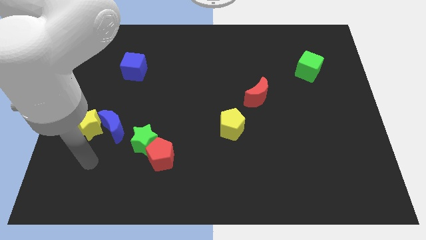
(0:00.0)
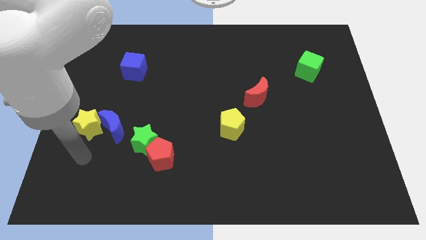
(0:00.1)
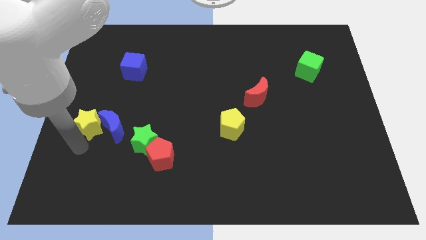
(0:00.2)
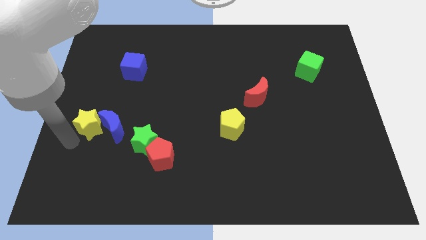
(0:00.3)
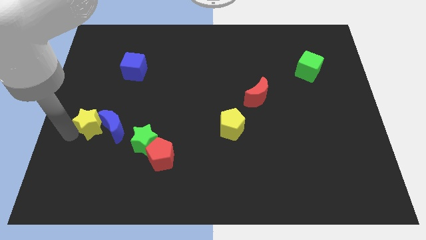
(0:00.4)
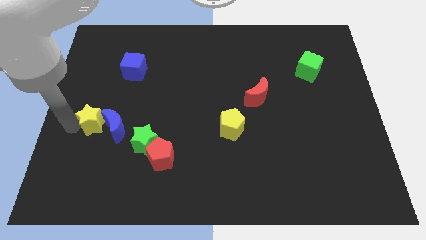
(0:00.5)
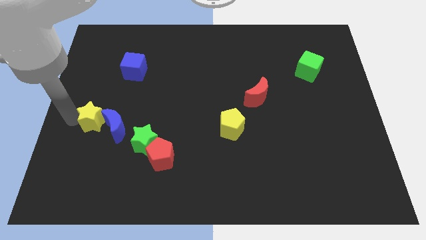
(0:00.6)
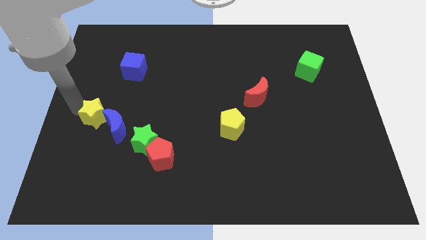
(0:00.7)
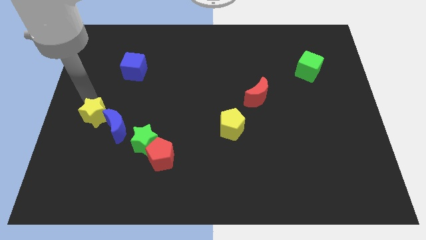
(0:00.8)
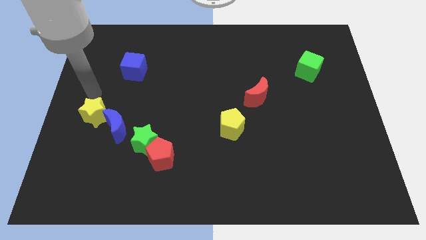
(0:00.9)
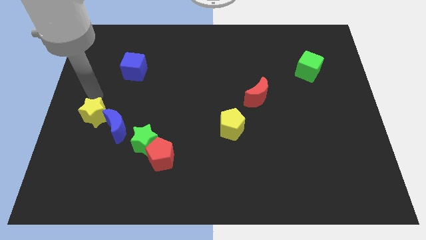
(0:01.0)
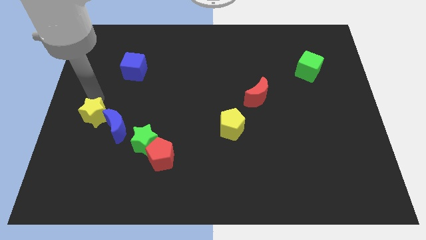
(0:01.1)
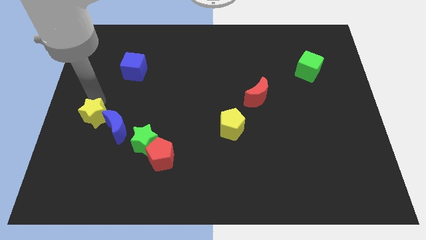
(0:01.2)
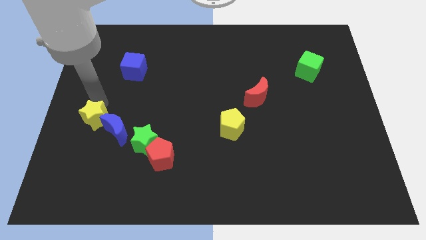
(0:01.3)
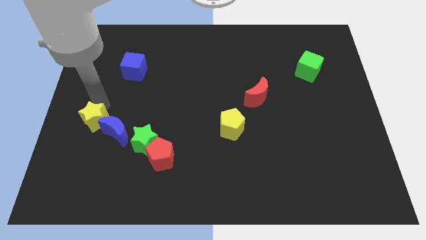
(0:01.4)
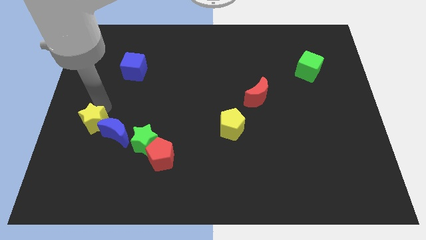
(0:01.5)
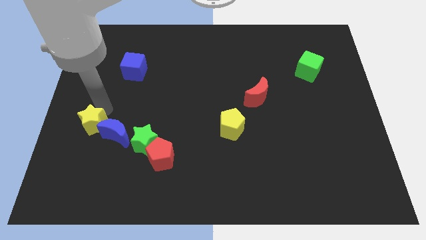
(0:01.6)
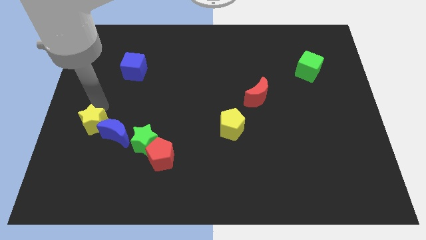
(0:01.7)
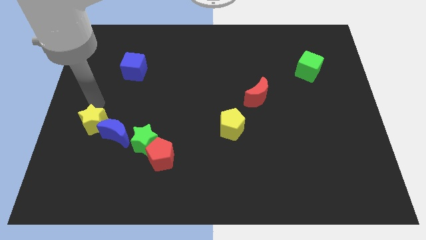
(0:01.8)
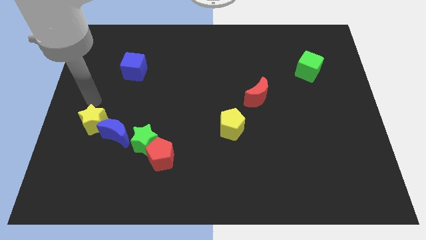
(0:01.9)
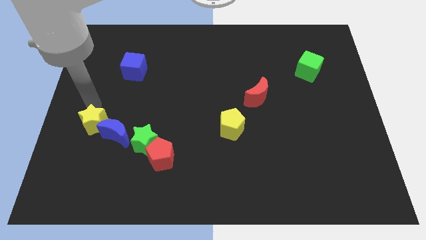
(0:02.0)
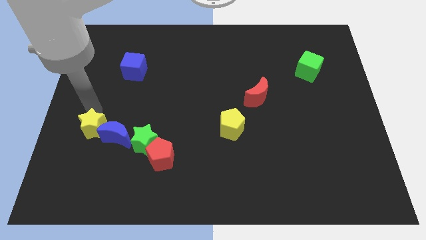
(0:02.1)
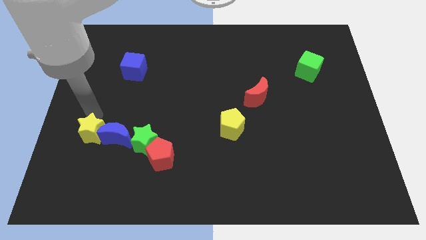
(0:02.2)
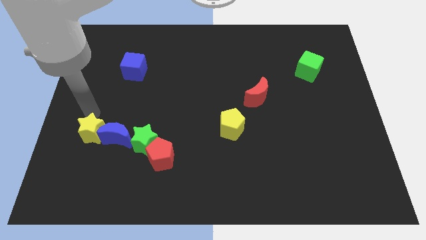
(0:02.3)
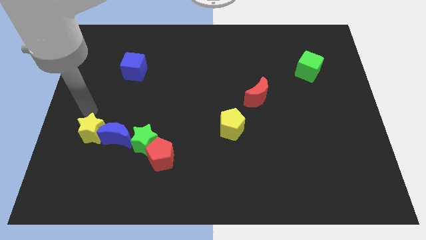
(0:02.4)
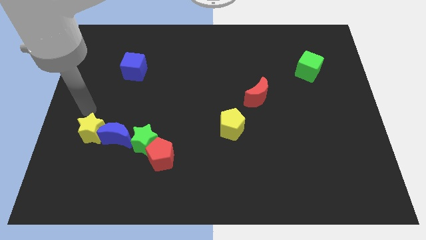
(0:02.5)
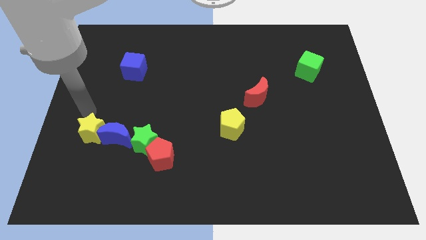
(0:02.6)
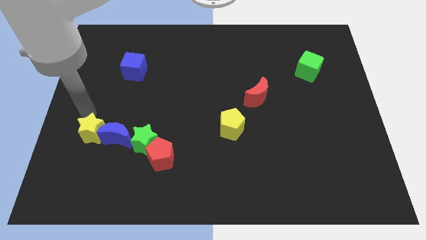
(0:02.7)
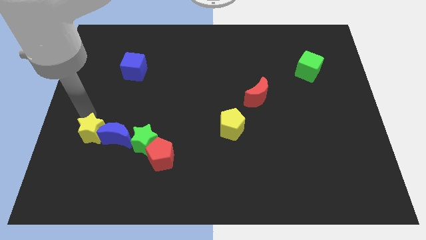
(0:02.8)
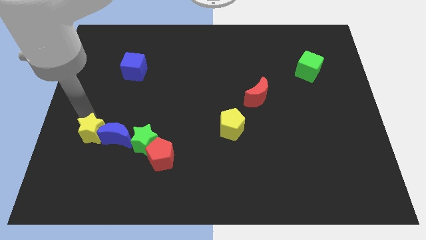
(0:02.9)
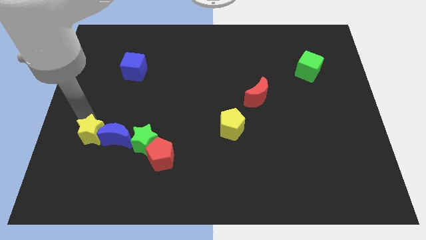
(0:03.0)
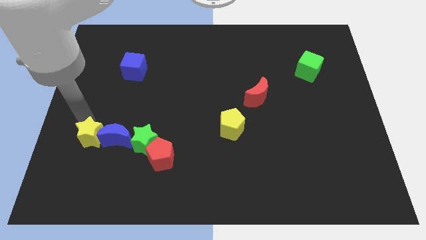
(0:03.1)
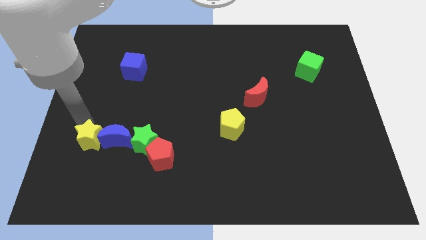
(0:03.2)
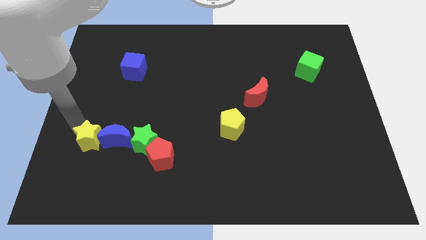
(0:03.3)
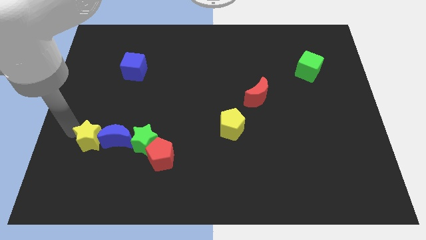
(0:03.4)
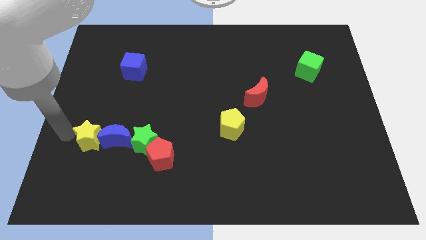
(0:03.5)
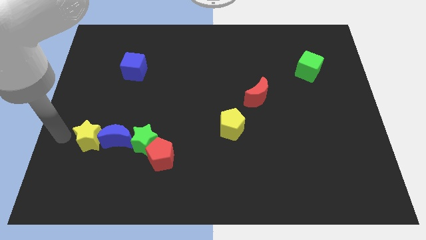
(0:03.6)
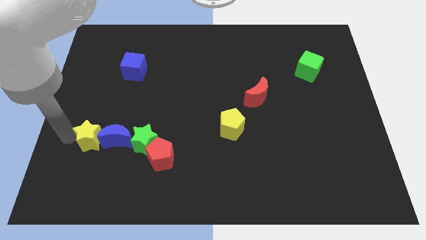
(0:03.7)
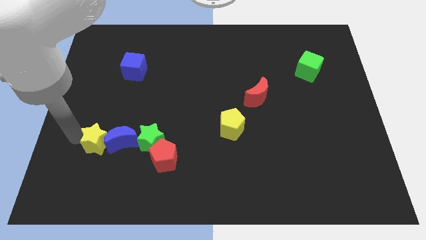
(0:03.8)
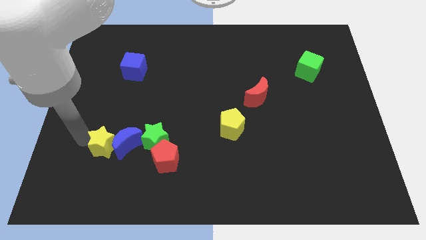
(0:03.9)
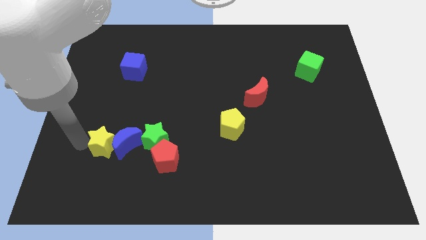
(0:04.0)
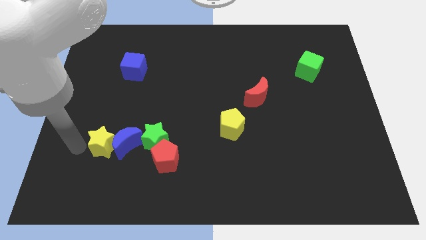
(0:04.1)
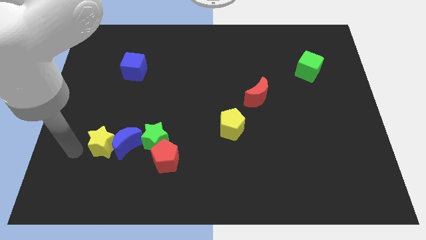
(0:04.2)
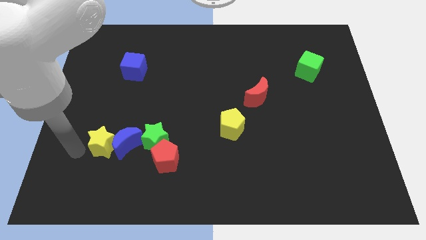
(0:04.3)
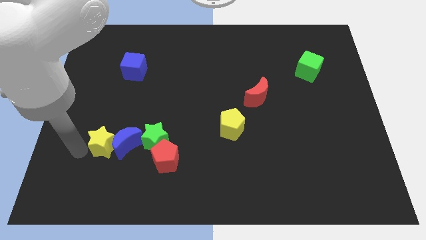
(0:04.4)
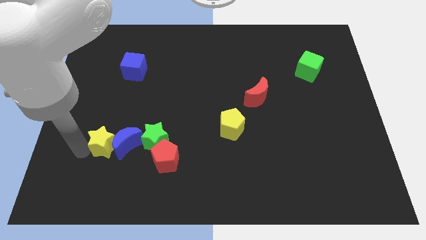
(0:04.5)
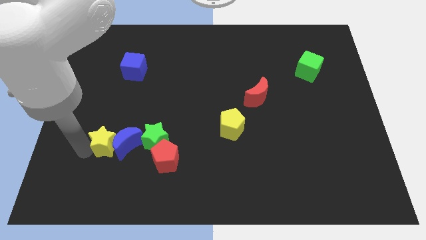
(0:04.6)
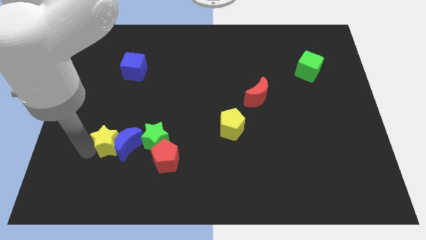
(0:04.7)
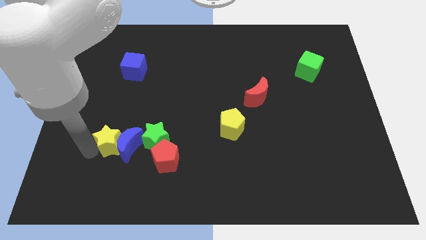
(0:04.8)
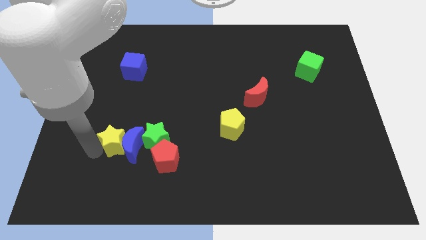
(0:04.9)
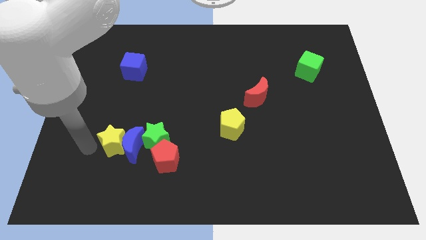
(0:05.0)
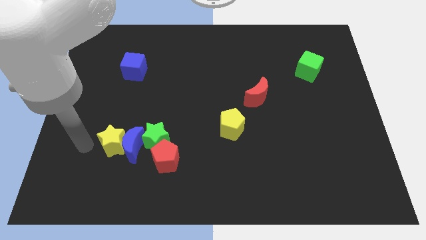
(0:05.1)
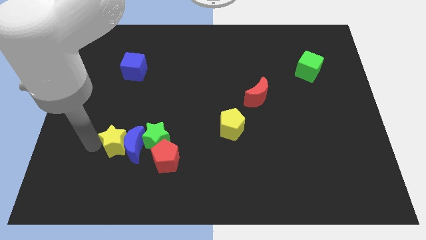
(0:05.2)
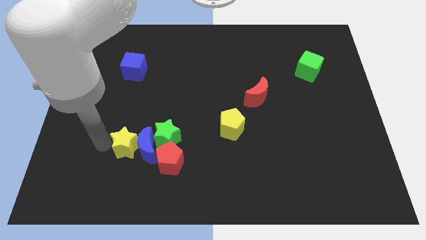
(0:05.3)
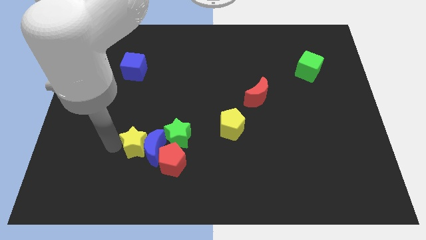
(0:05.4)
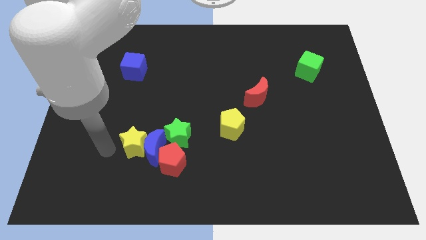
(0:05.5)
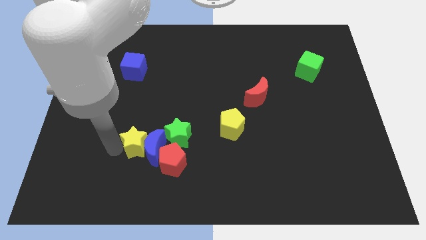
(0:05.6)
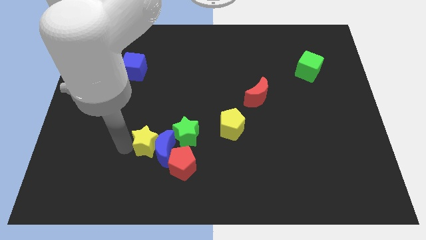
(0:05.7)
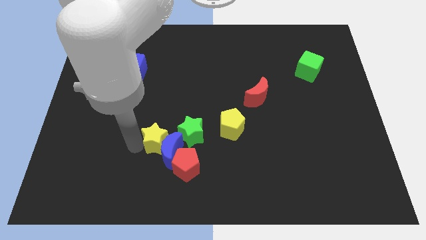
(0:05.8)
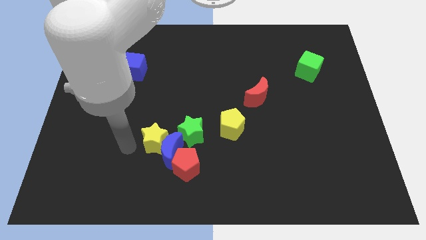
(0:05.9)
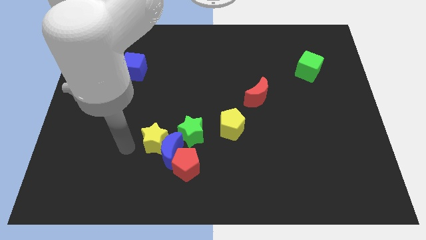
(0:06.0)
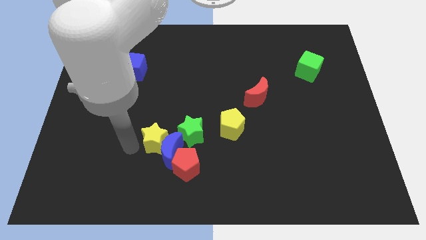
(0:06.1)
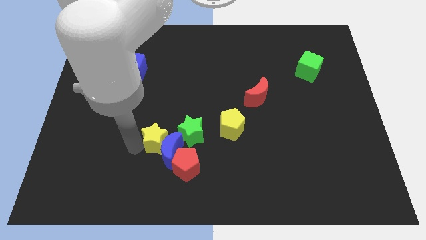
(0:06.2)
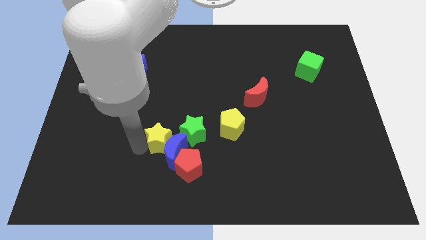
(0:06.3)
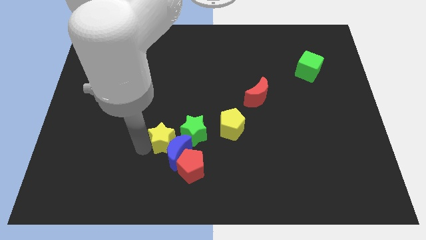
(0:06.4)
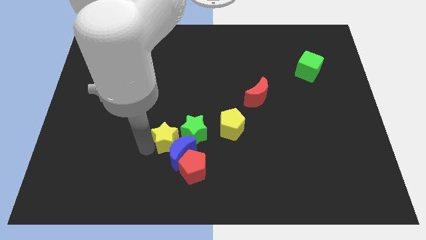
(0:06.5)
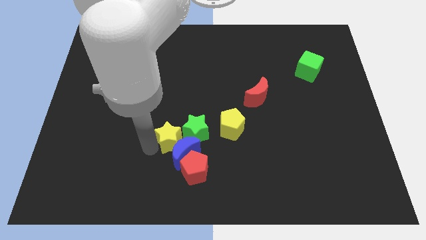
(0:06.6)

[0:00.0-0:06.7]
move the yellow star towards the green star
